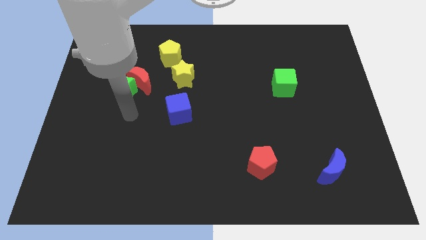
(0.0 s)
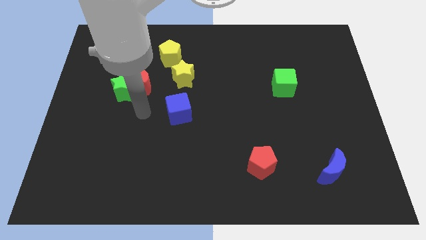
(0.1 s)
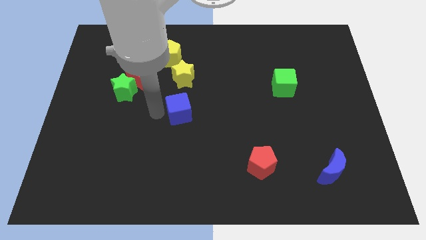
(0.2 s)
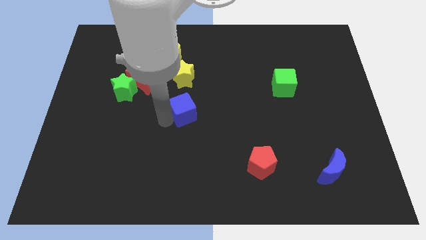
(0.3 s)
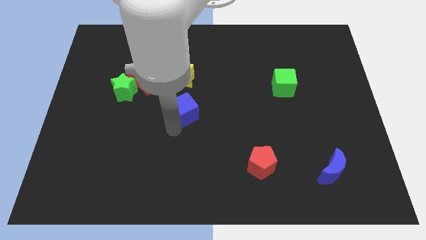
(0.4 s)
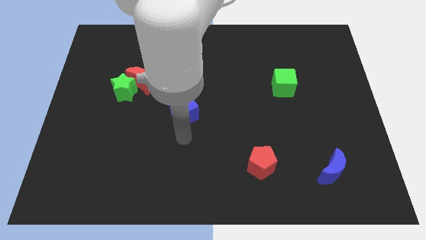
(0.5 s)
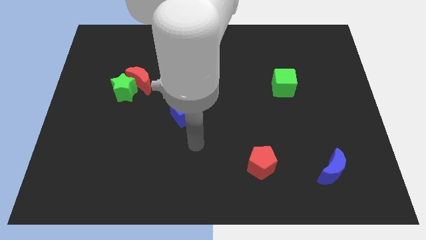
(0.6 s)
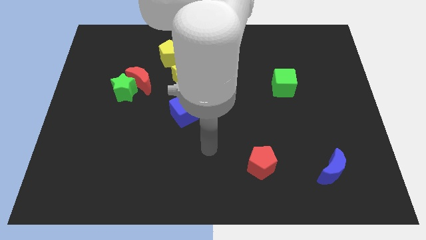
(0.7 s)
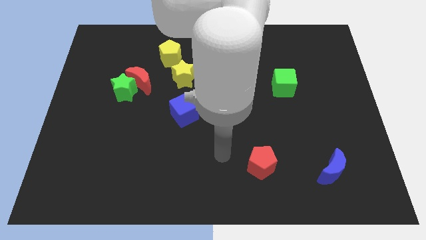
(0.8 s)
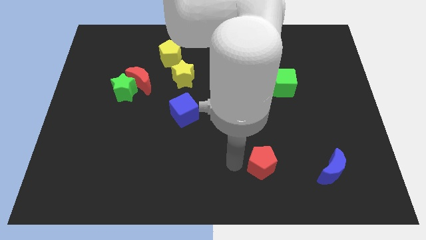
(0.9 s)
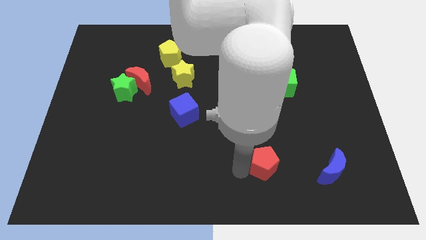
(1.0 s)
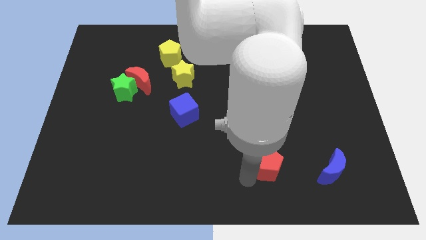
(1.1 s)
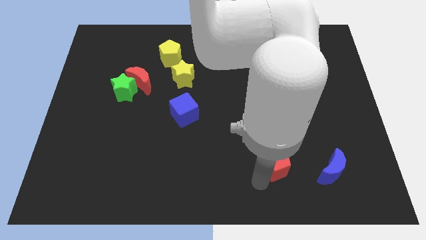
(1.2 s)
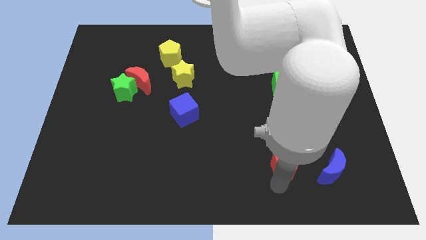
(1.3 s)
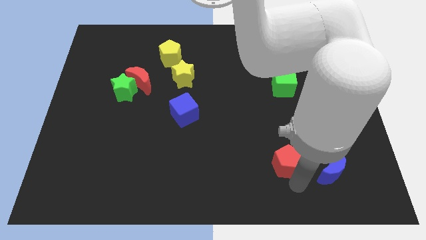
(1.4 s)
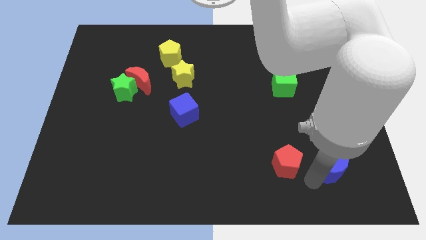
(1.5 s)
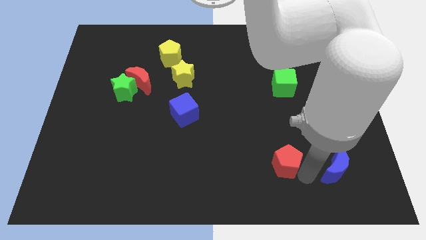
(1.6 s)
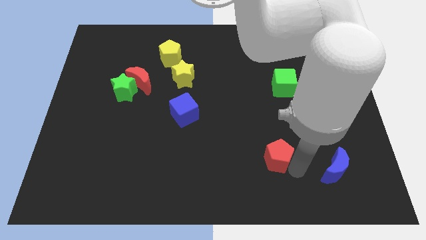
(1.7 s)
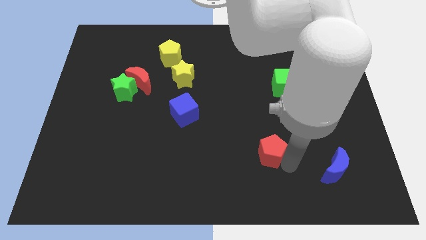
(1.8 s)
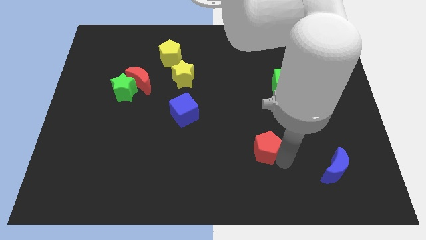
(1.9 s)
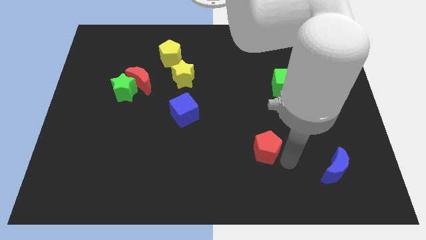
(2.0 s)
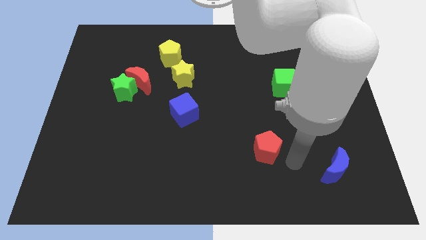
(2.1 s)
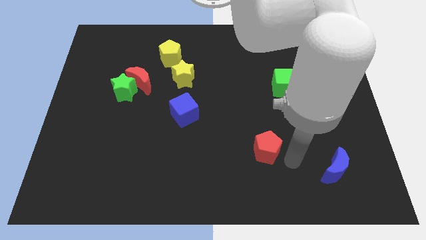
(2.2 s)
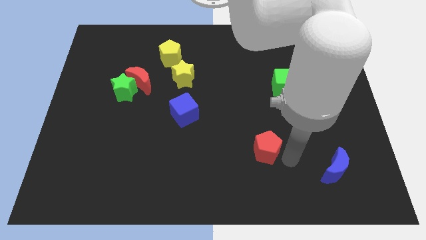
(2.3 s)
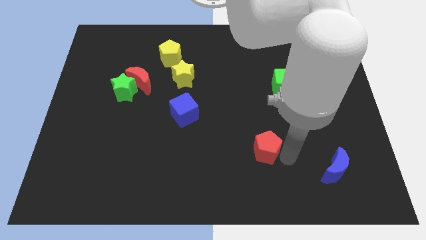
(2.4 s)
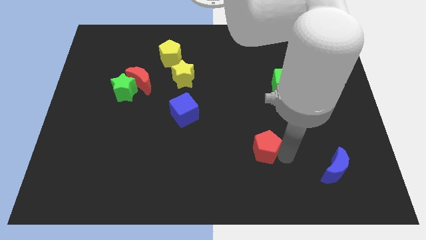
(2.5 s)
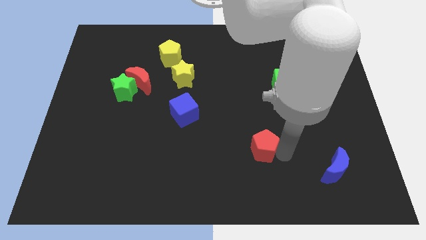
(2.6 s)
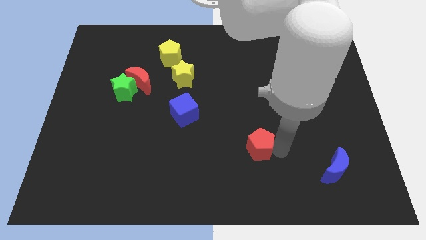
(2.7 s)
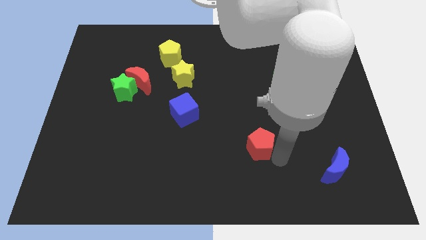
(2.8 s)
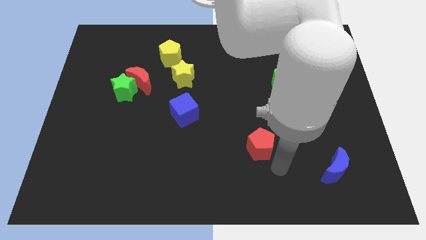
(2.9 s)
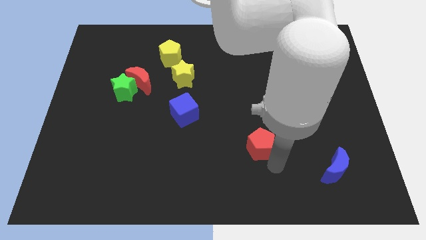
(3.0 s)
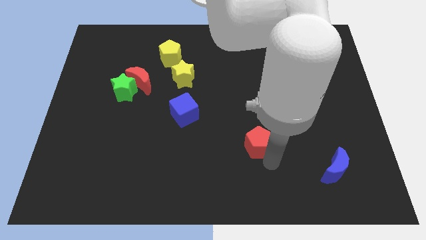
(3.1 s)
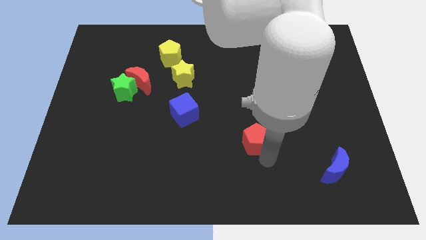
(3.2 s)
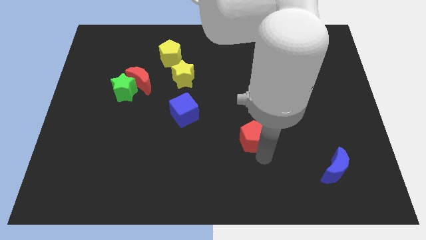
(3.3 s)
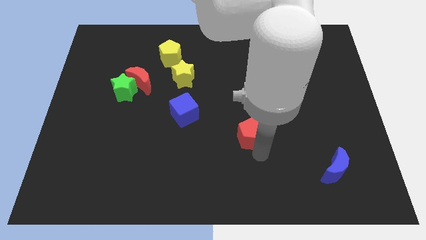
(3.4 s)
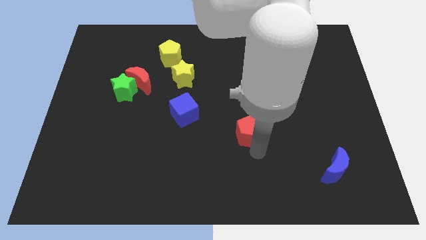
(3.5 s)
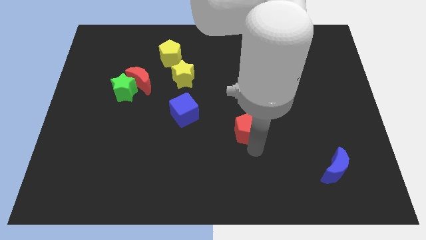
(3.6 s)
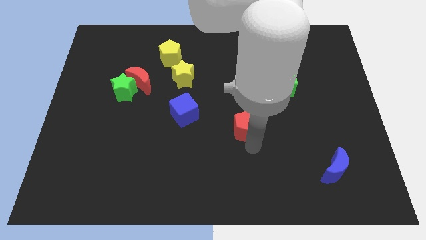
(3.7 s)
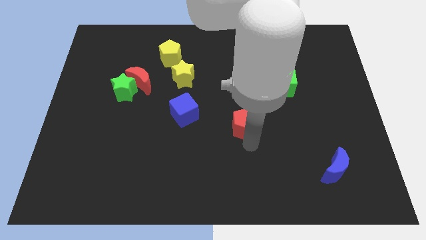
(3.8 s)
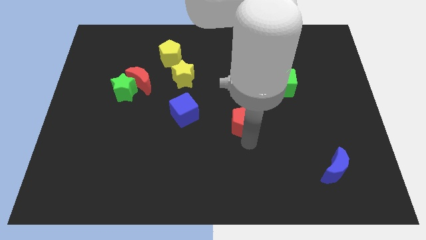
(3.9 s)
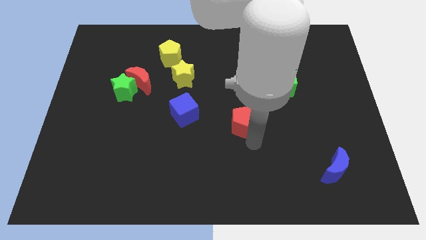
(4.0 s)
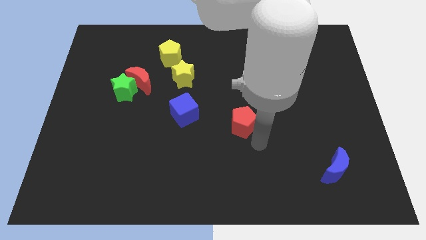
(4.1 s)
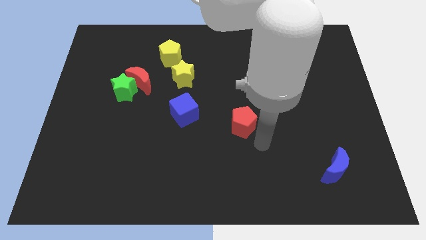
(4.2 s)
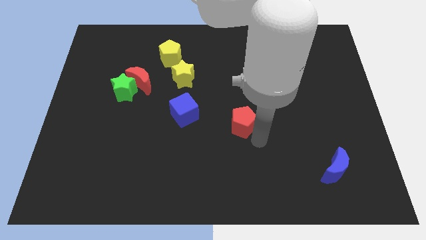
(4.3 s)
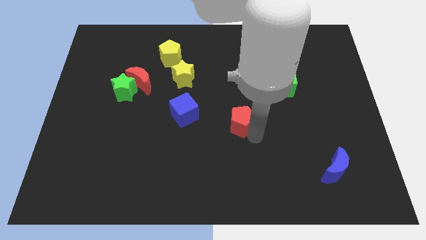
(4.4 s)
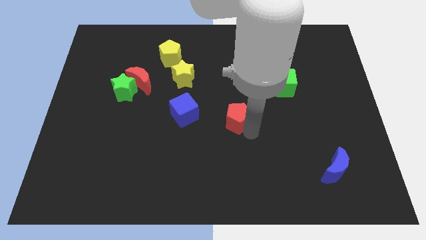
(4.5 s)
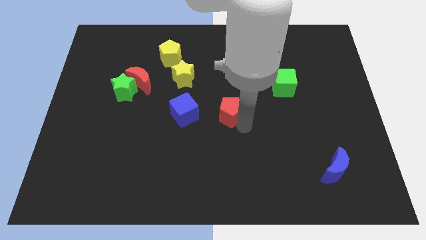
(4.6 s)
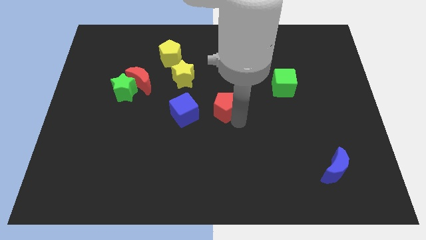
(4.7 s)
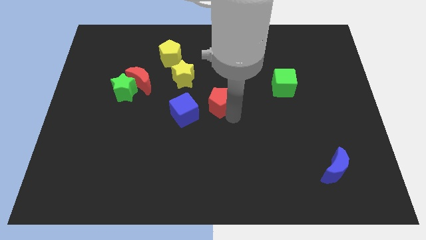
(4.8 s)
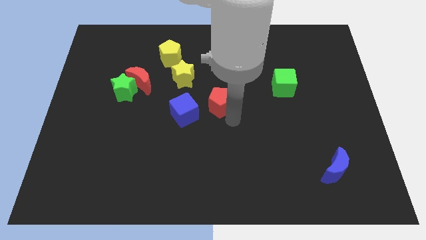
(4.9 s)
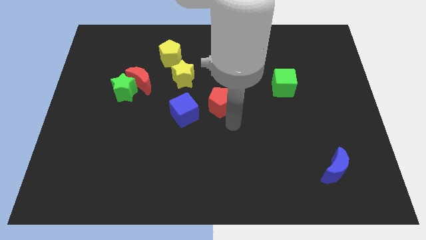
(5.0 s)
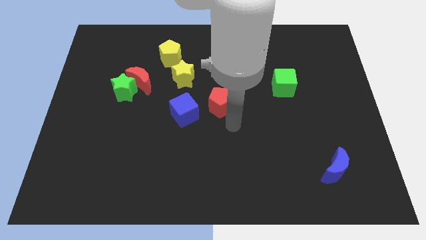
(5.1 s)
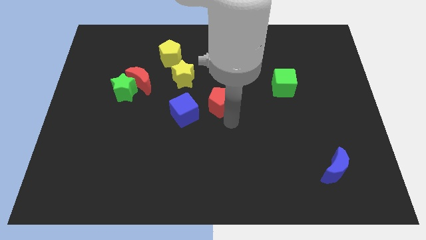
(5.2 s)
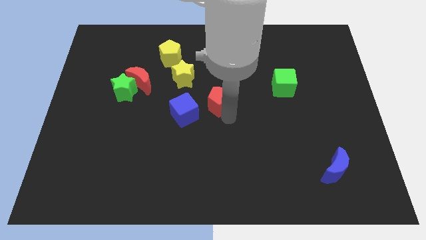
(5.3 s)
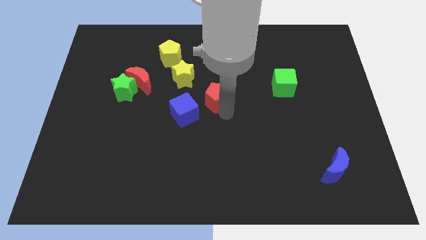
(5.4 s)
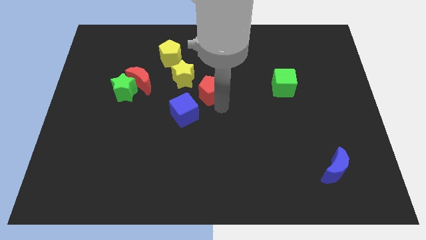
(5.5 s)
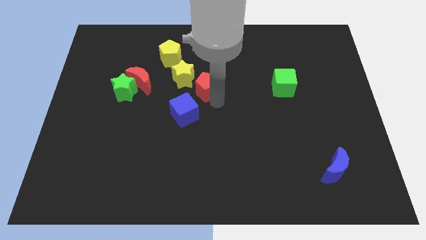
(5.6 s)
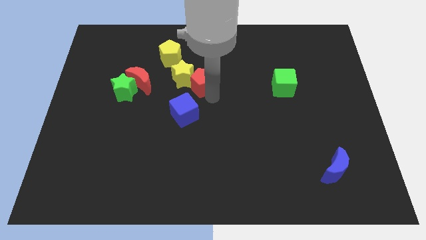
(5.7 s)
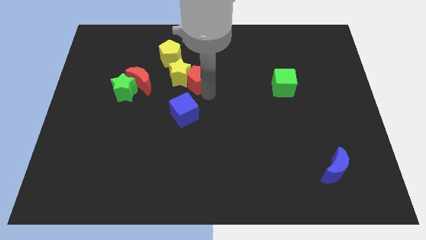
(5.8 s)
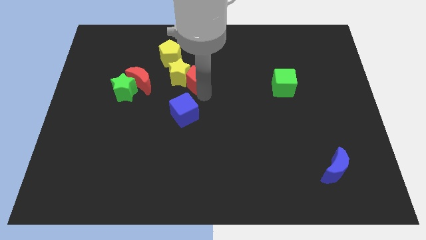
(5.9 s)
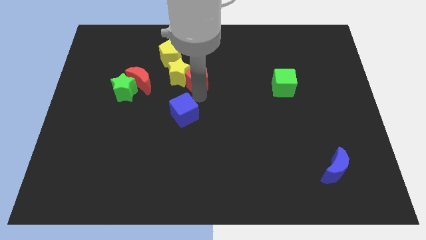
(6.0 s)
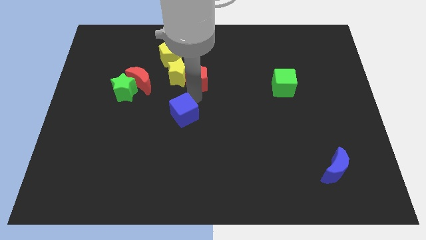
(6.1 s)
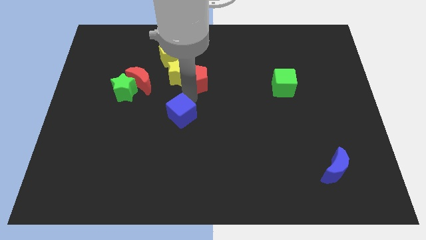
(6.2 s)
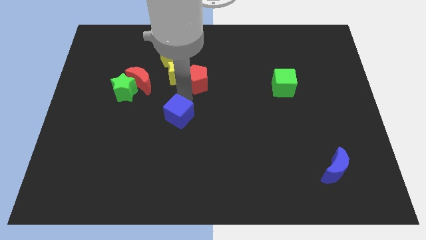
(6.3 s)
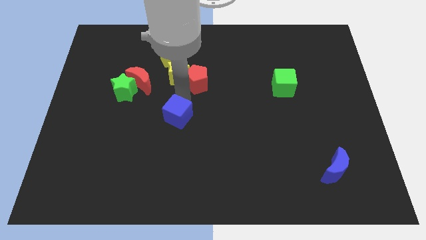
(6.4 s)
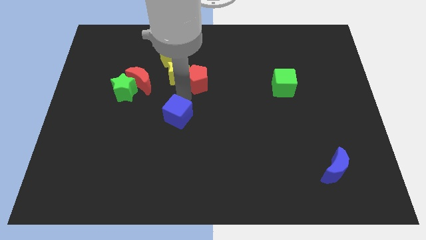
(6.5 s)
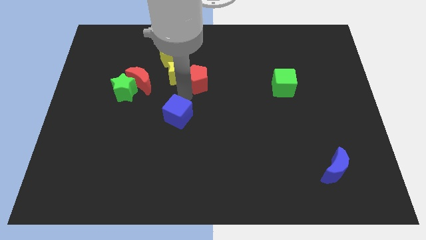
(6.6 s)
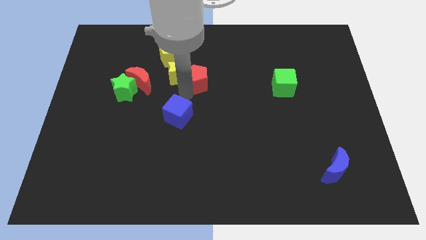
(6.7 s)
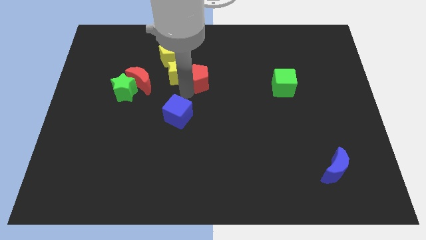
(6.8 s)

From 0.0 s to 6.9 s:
push the red pentagon diagonally up and to the right of the yellow star
